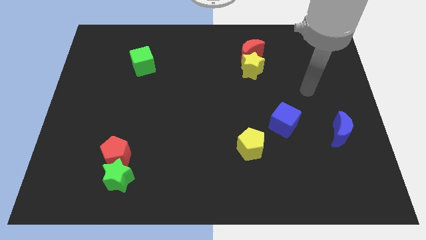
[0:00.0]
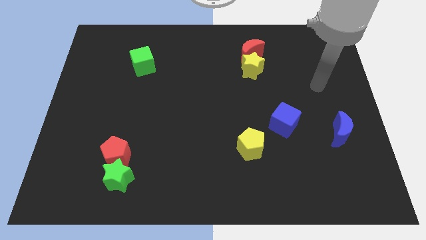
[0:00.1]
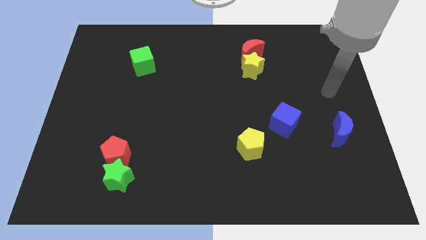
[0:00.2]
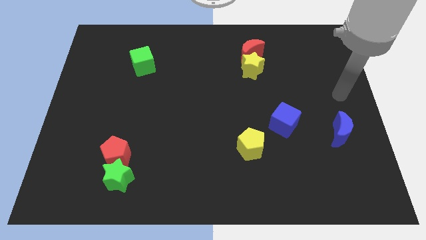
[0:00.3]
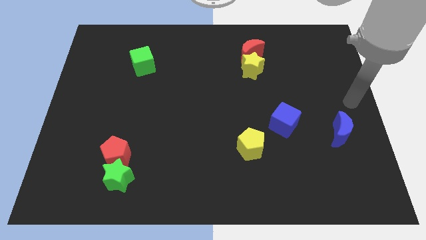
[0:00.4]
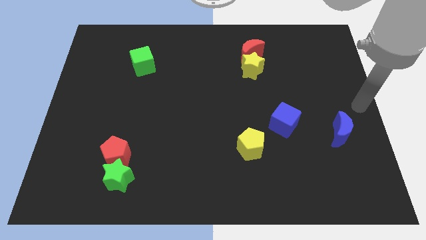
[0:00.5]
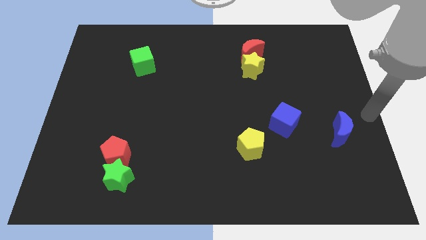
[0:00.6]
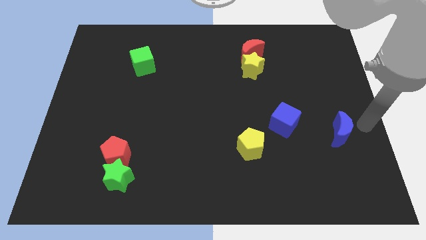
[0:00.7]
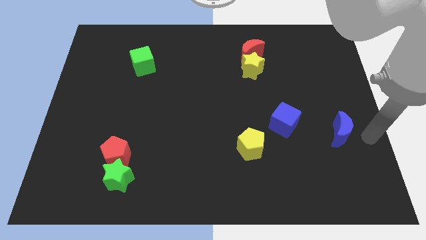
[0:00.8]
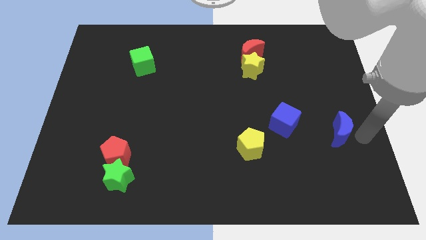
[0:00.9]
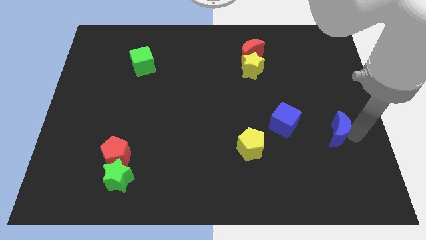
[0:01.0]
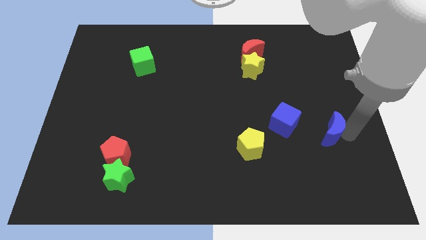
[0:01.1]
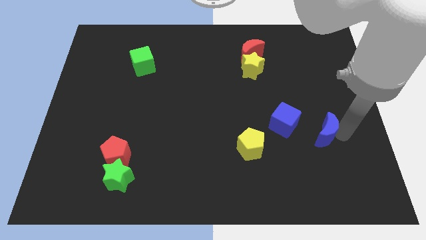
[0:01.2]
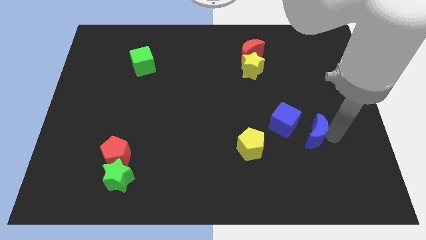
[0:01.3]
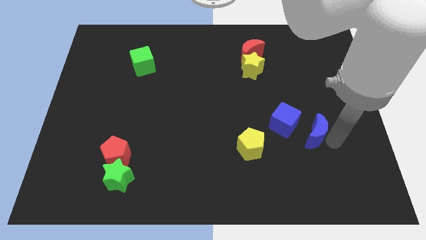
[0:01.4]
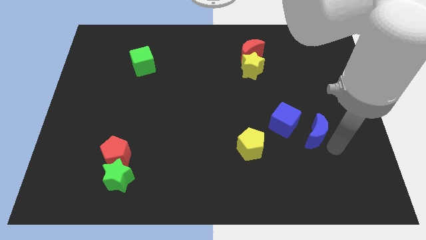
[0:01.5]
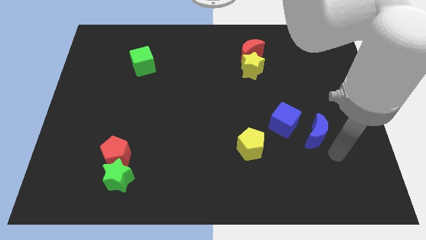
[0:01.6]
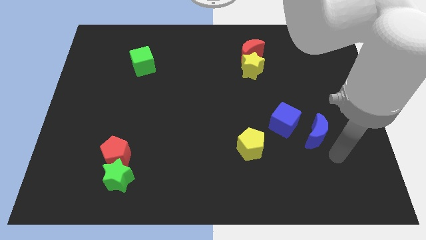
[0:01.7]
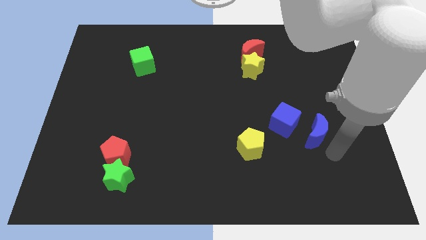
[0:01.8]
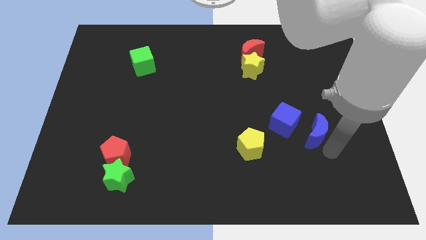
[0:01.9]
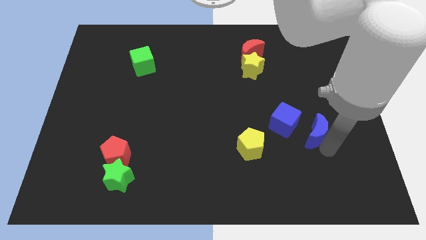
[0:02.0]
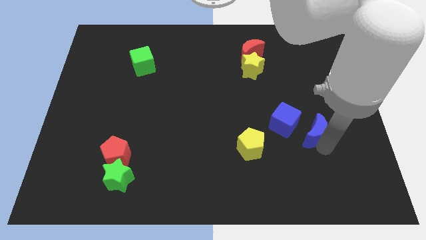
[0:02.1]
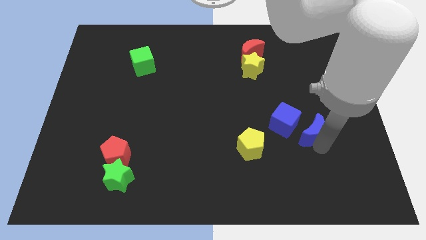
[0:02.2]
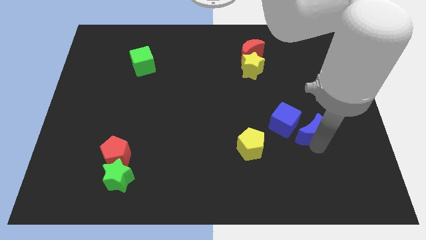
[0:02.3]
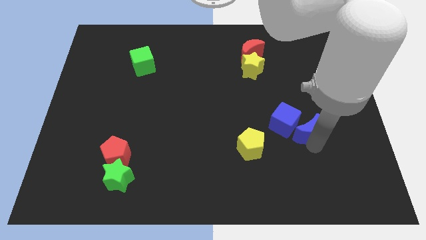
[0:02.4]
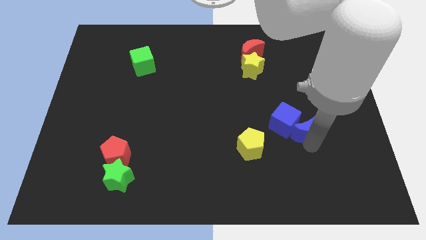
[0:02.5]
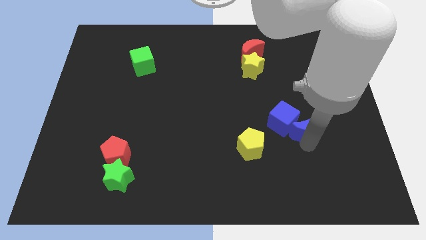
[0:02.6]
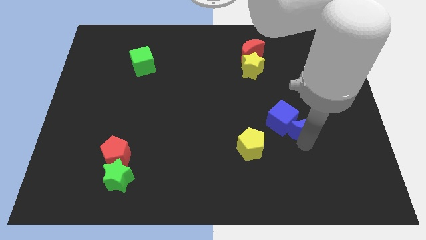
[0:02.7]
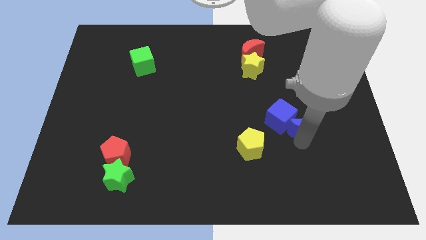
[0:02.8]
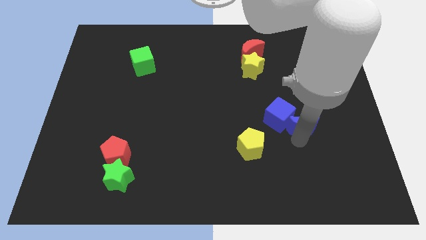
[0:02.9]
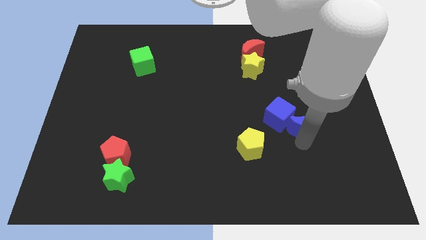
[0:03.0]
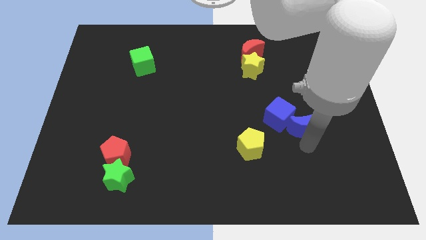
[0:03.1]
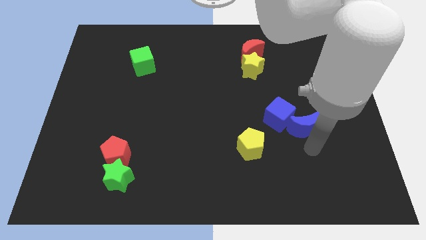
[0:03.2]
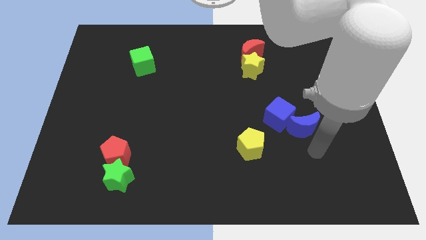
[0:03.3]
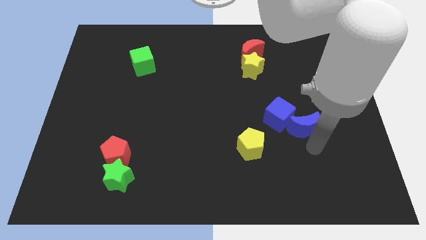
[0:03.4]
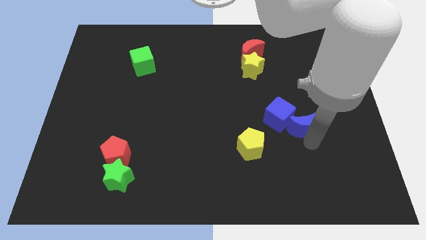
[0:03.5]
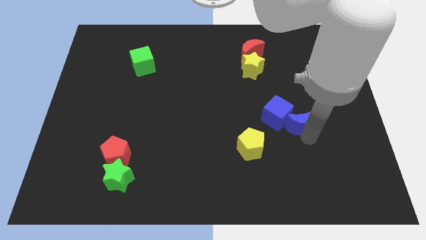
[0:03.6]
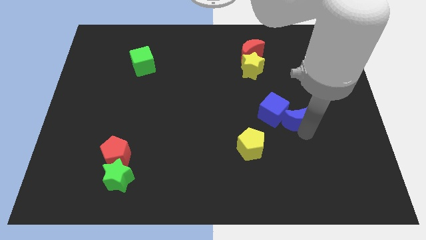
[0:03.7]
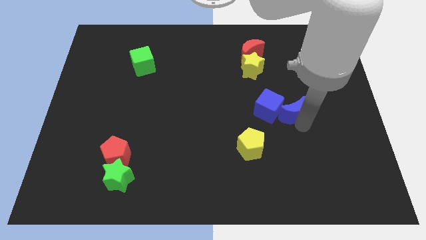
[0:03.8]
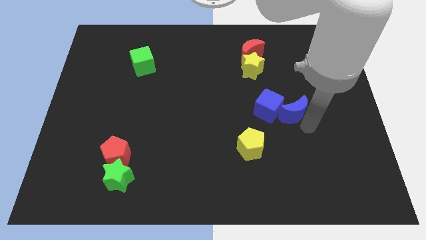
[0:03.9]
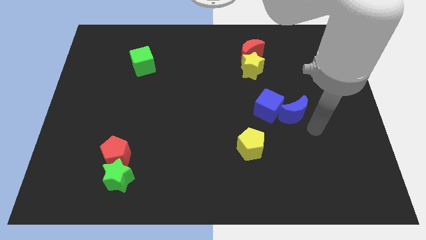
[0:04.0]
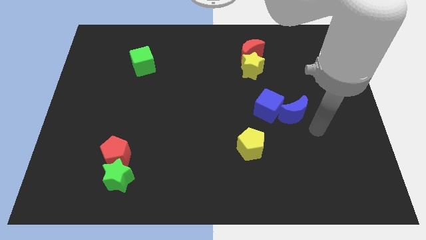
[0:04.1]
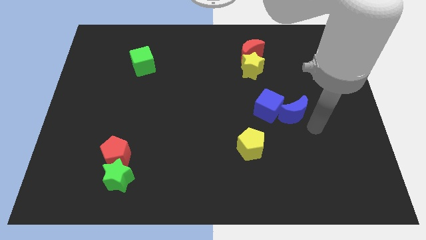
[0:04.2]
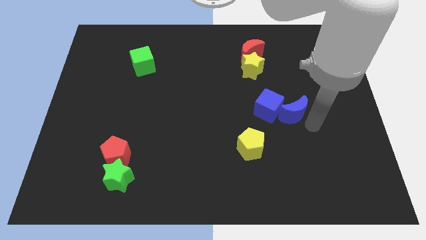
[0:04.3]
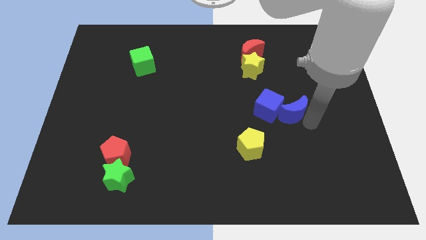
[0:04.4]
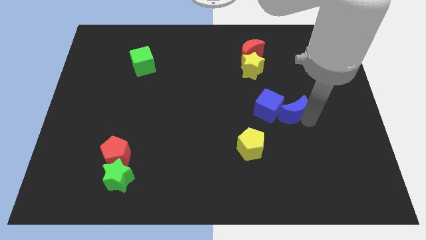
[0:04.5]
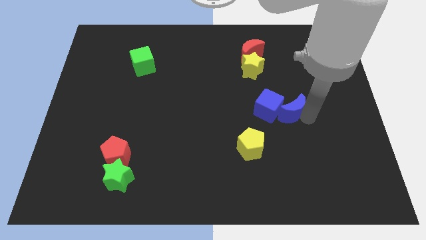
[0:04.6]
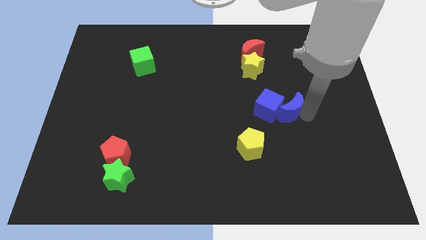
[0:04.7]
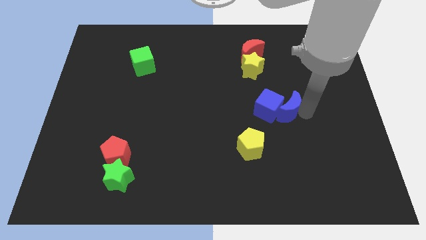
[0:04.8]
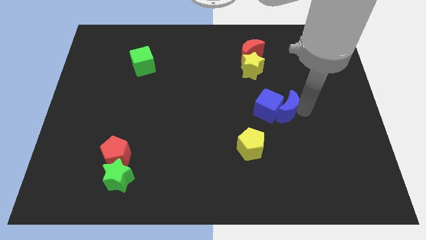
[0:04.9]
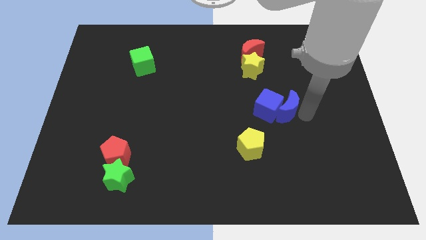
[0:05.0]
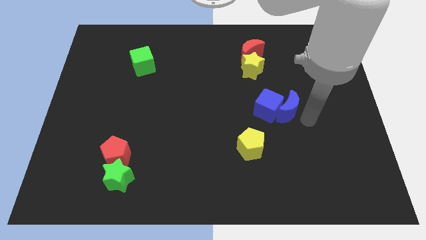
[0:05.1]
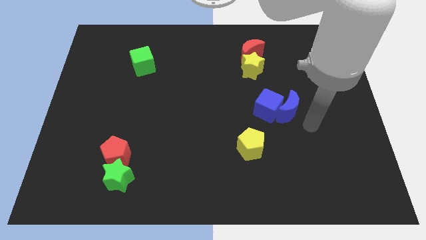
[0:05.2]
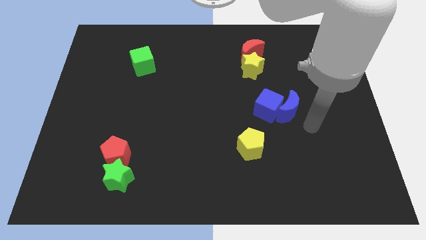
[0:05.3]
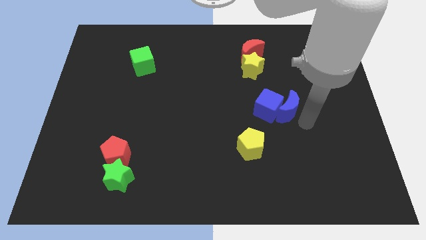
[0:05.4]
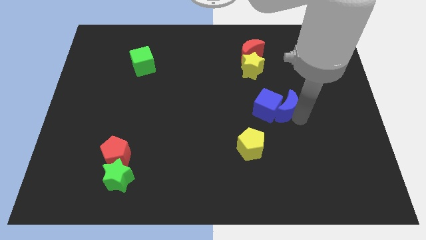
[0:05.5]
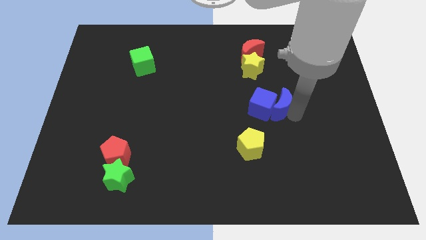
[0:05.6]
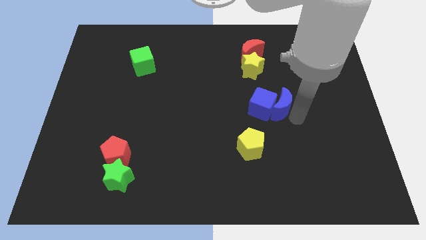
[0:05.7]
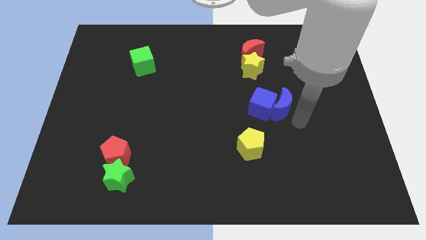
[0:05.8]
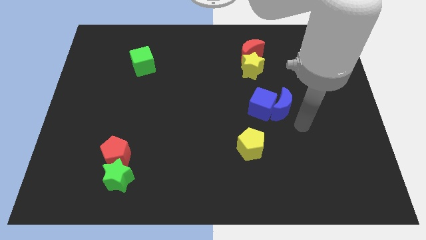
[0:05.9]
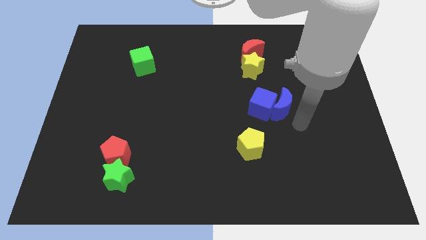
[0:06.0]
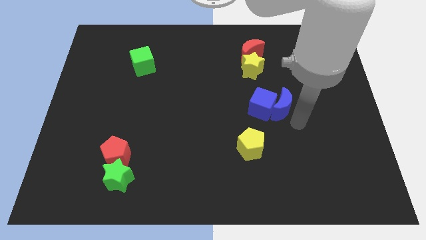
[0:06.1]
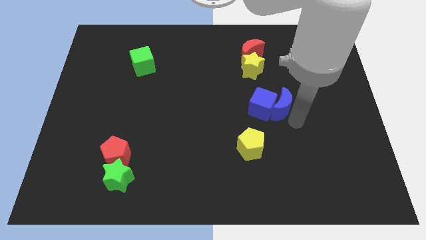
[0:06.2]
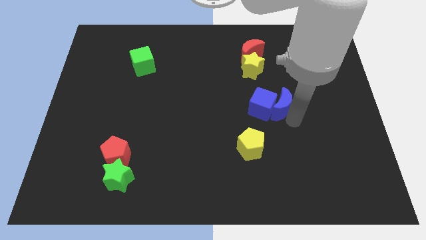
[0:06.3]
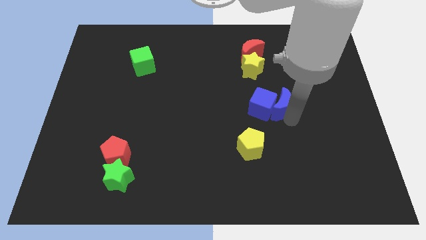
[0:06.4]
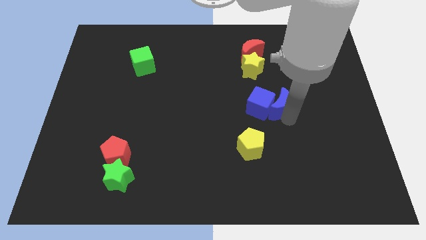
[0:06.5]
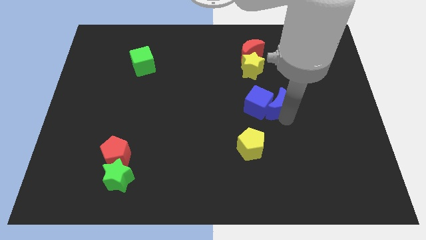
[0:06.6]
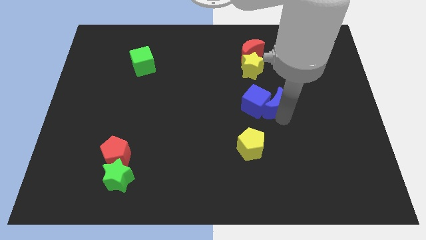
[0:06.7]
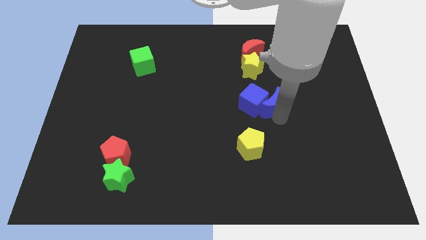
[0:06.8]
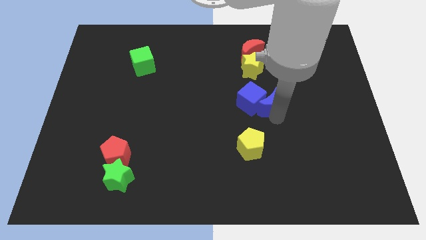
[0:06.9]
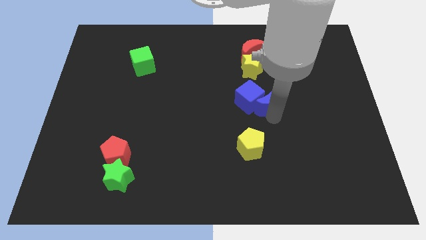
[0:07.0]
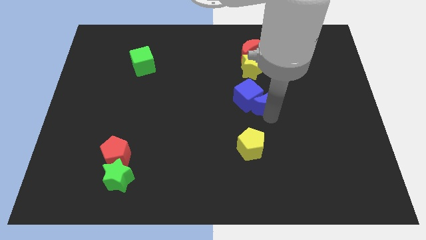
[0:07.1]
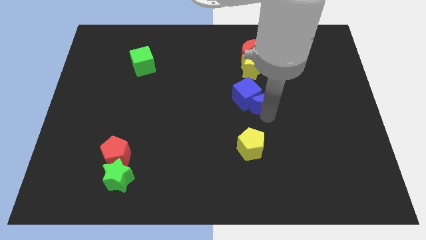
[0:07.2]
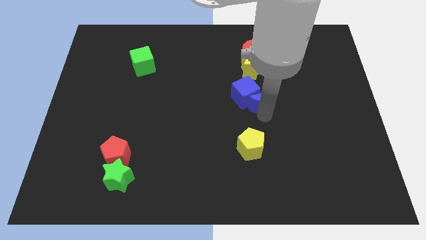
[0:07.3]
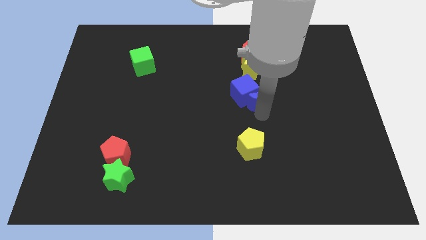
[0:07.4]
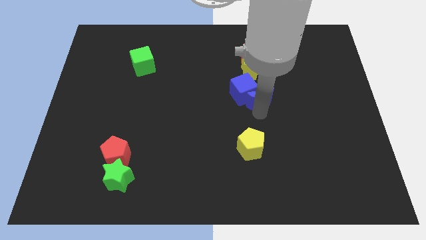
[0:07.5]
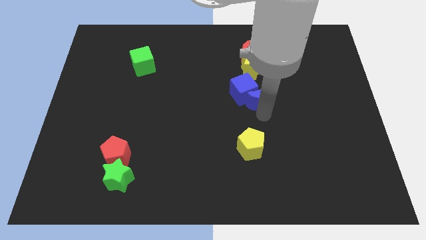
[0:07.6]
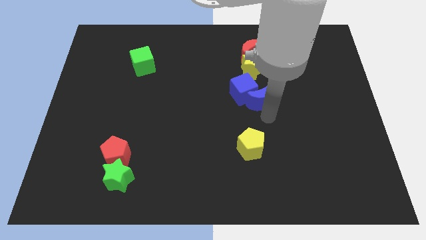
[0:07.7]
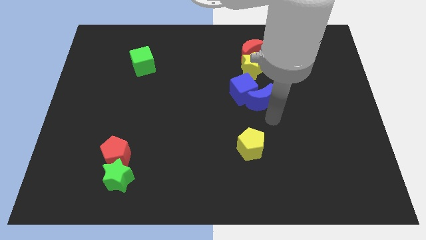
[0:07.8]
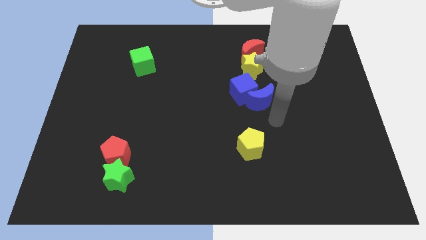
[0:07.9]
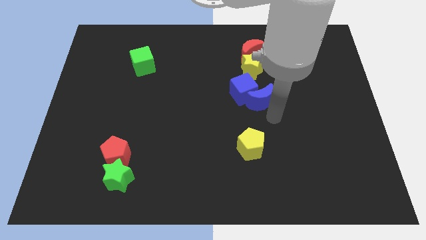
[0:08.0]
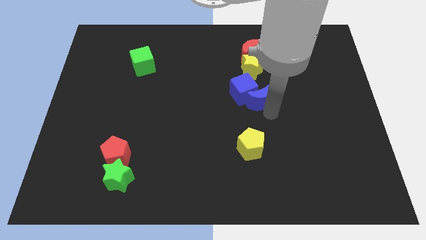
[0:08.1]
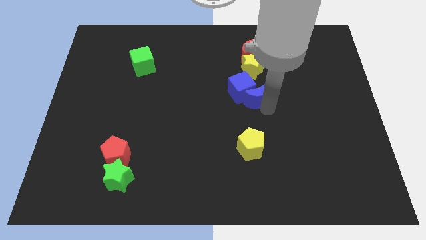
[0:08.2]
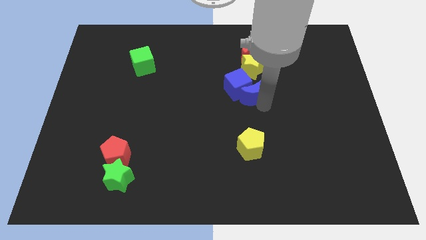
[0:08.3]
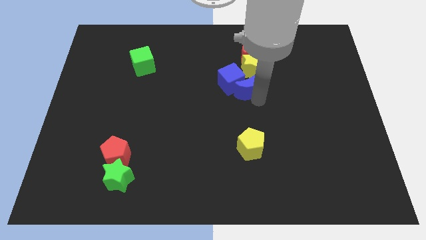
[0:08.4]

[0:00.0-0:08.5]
move the blue moon diagonally upwards and to the left
